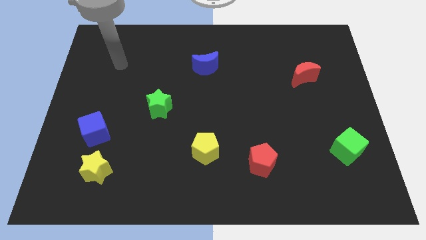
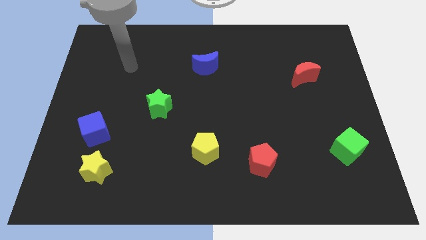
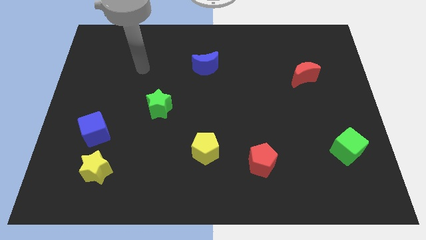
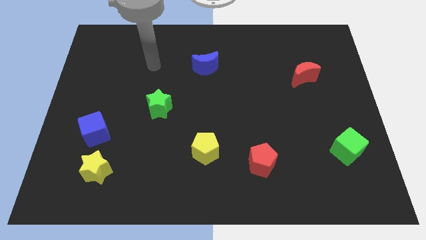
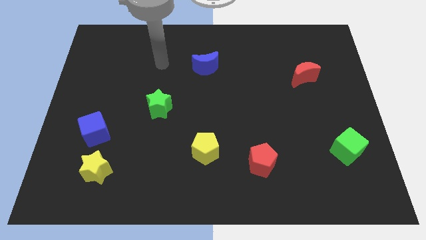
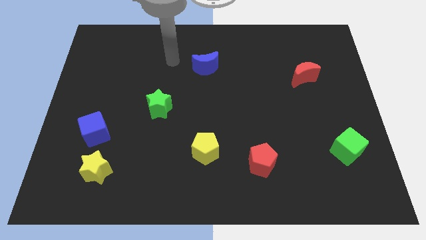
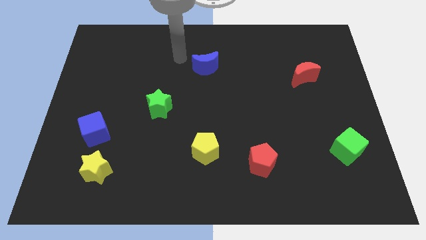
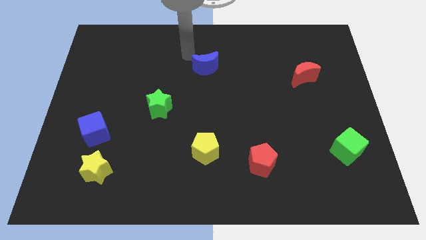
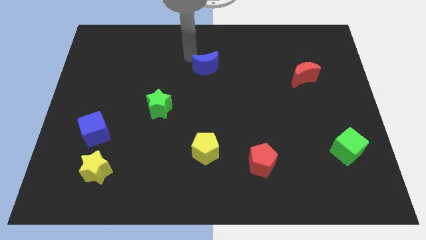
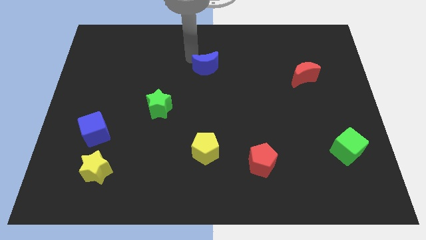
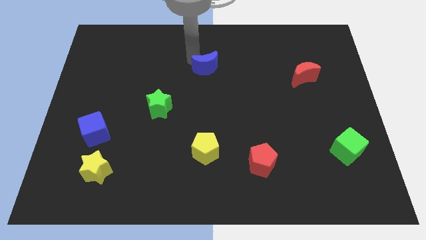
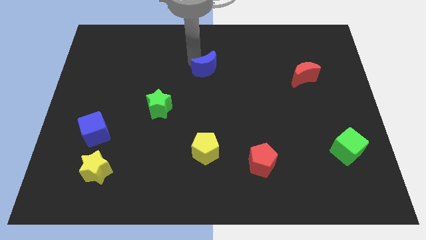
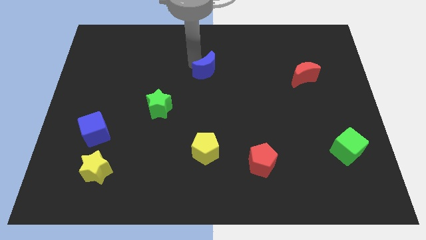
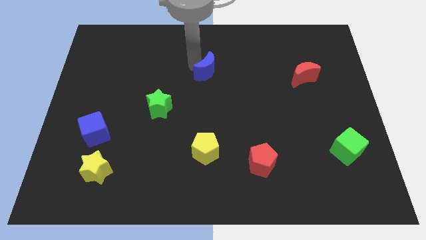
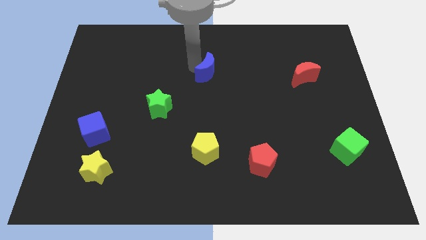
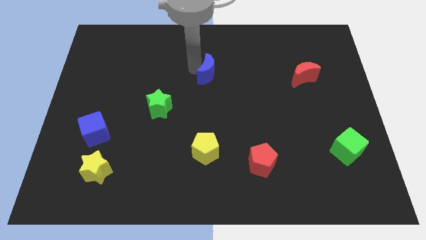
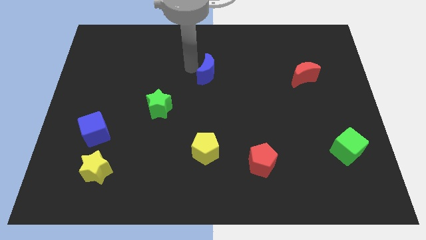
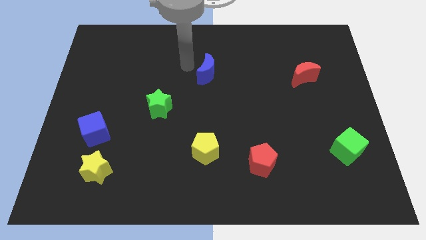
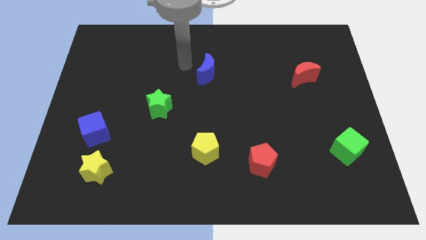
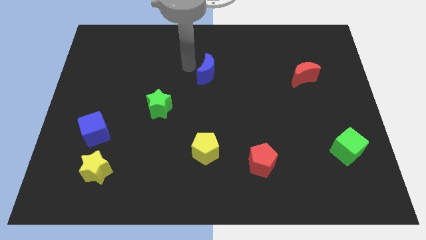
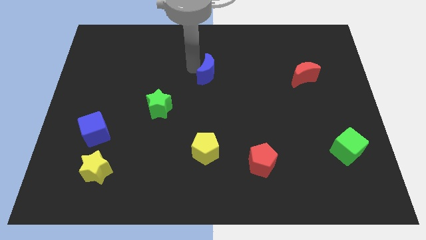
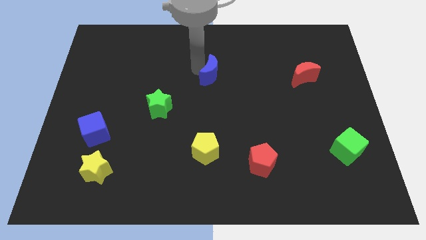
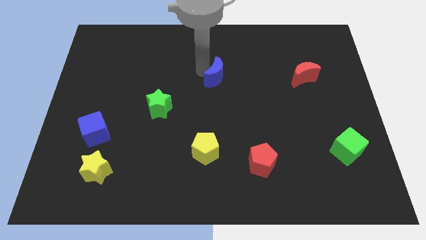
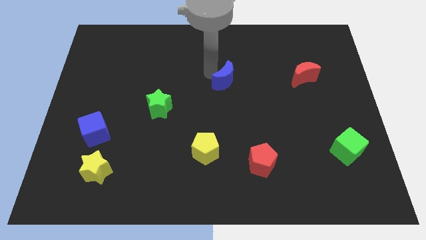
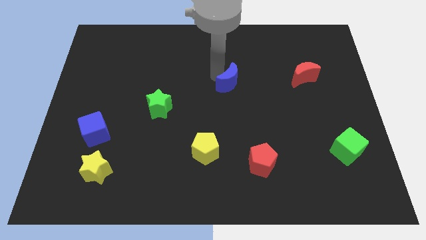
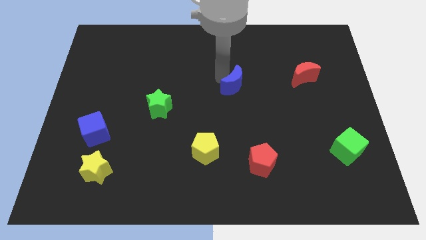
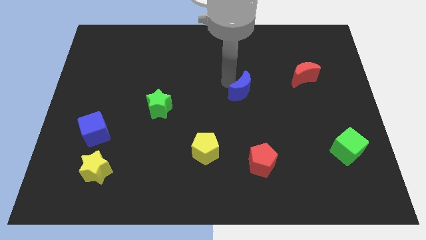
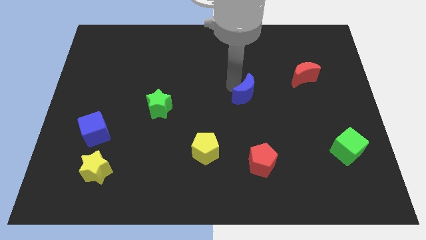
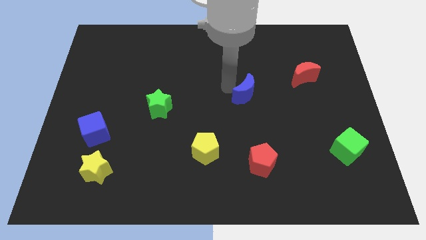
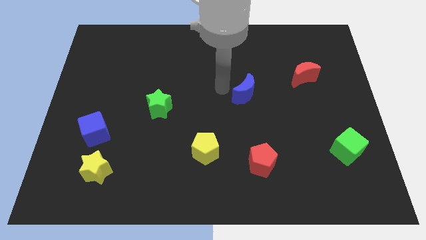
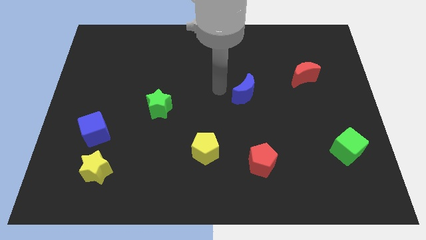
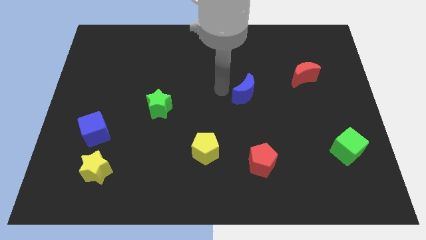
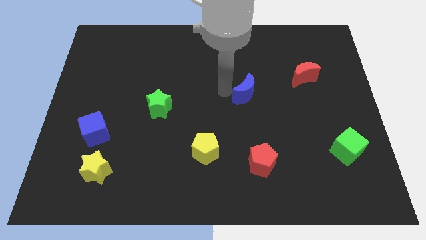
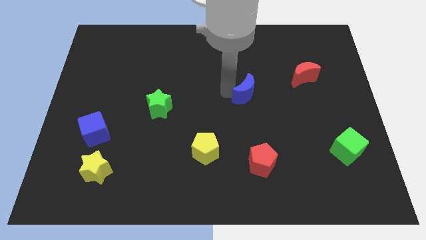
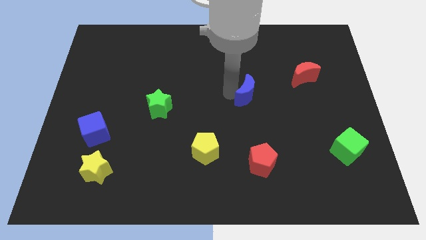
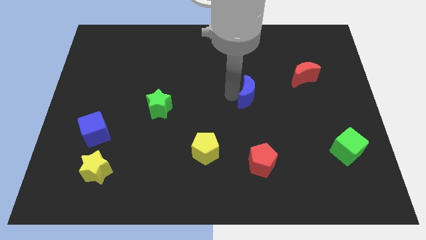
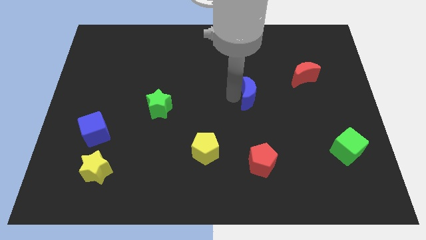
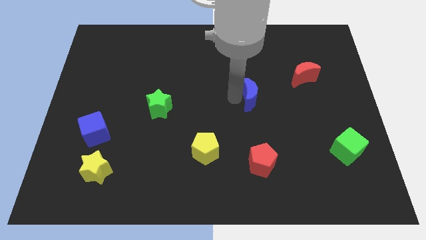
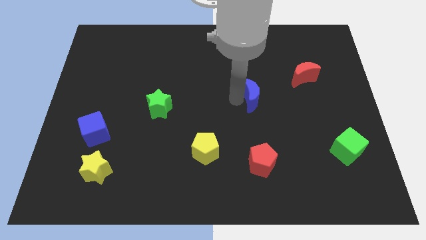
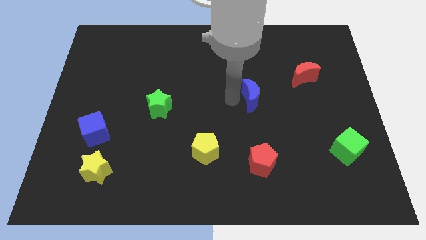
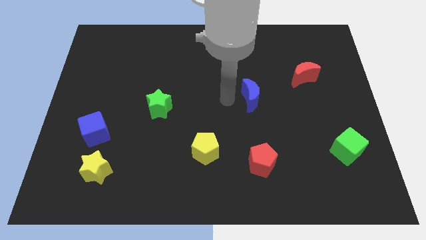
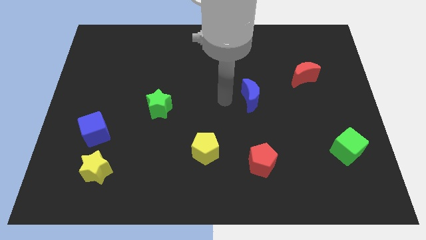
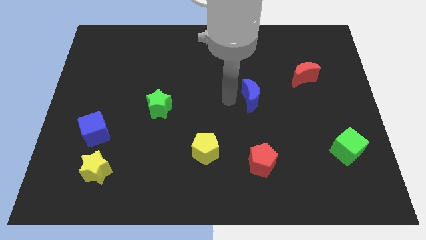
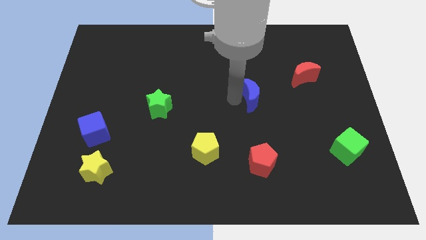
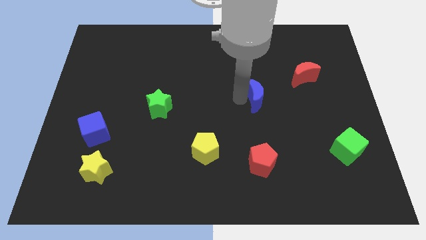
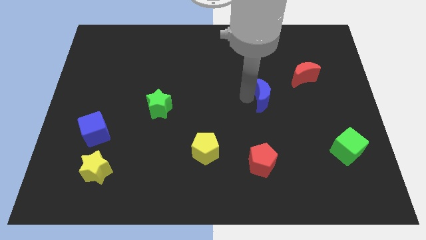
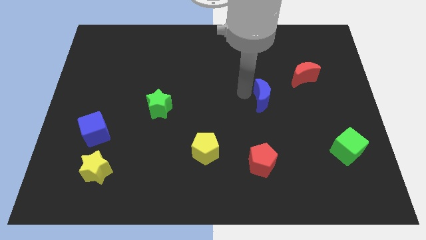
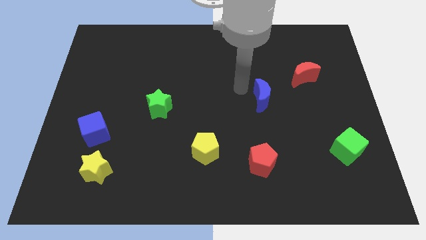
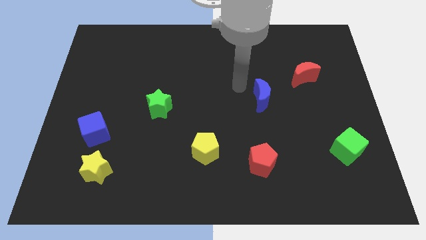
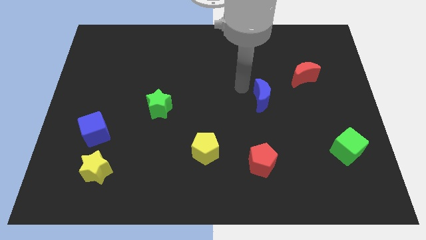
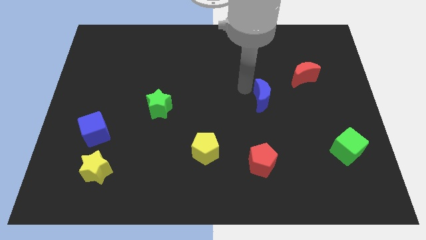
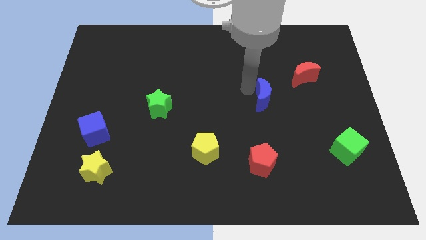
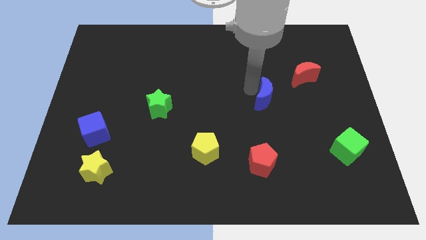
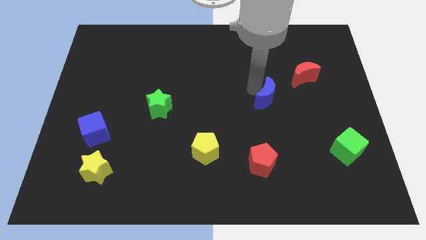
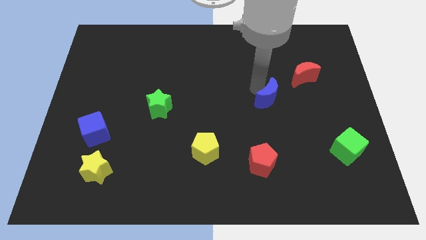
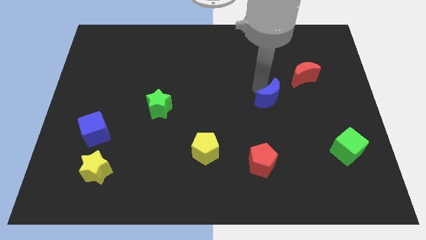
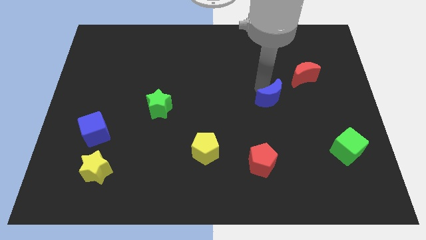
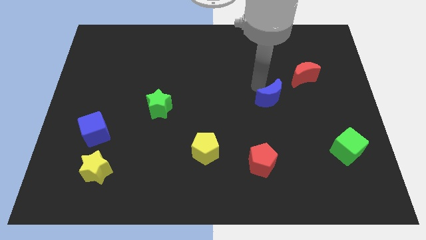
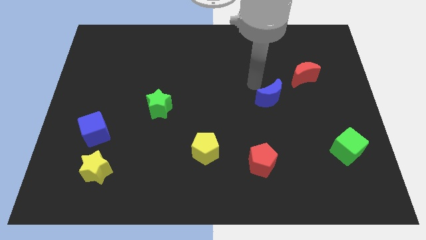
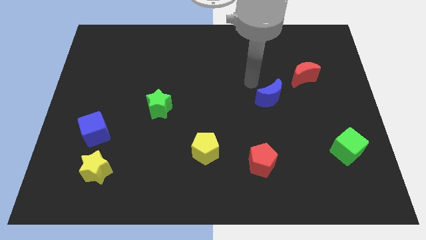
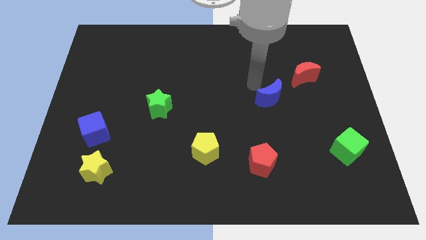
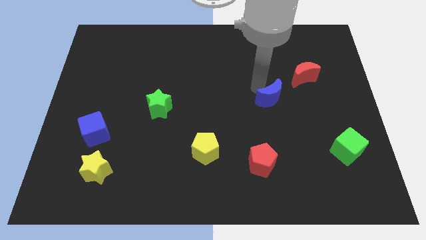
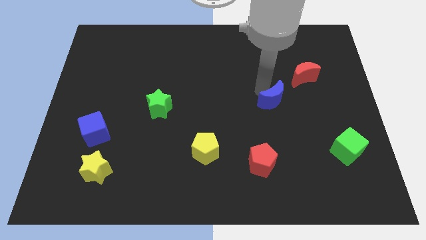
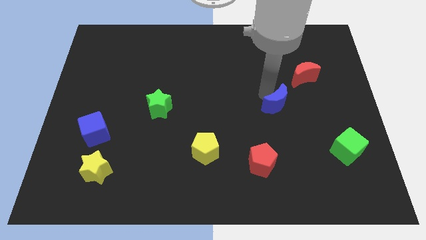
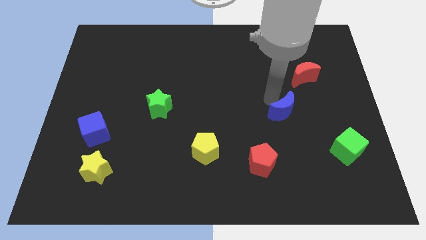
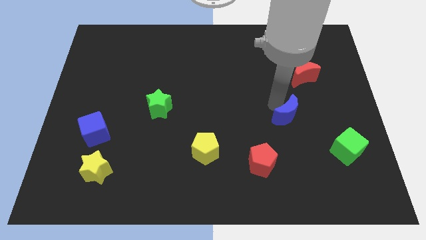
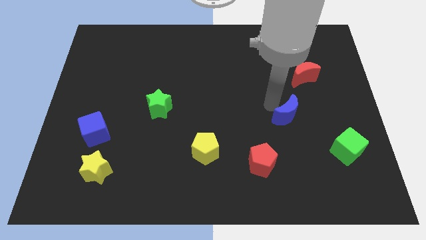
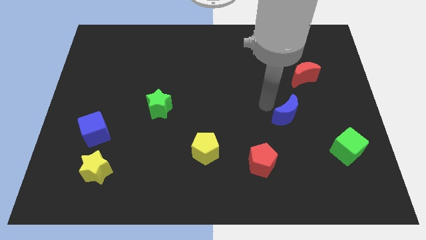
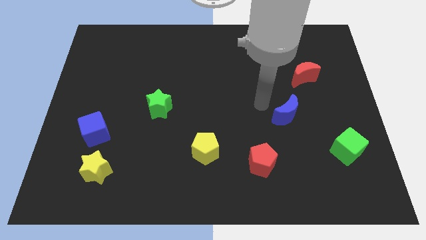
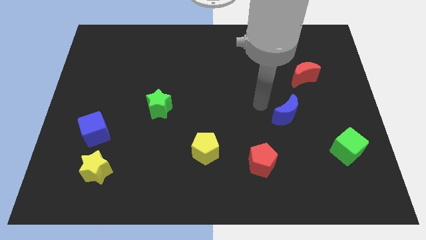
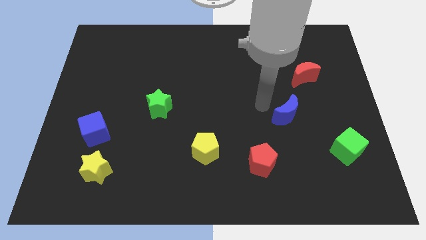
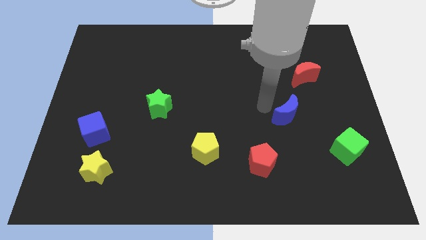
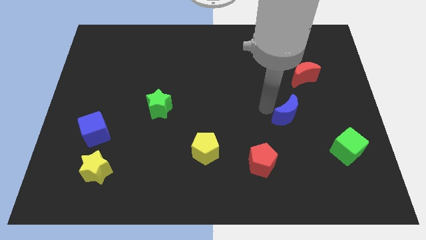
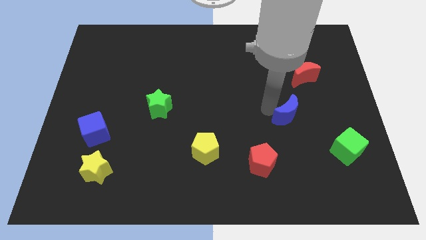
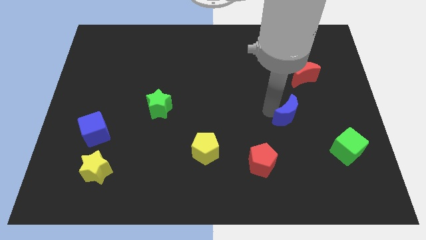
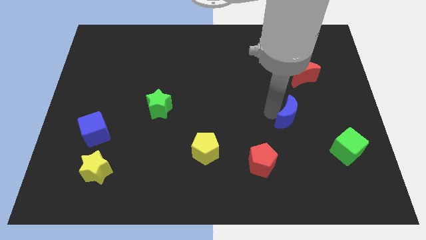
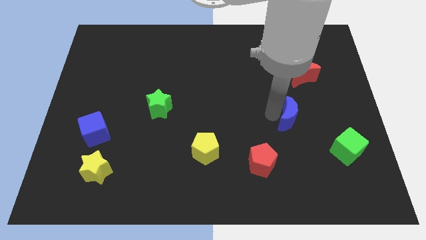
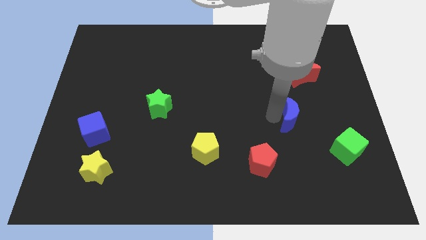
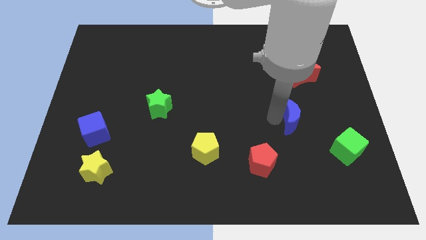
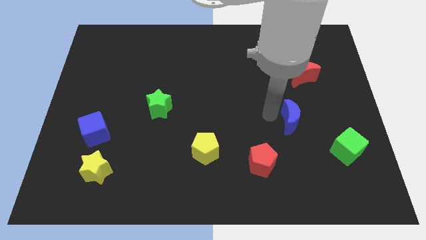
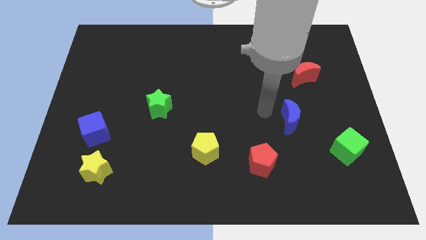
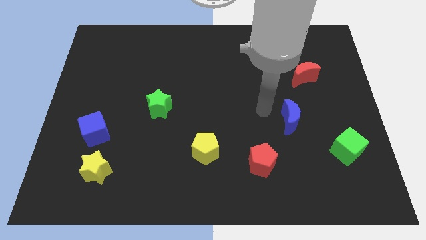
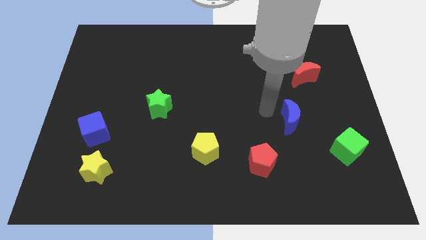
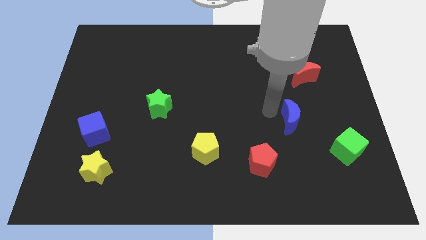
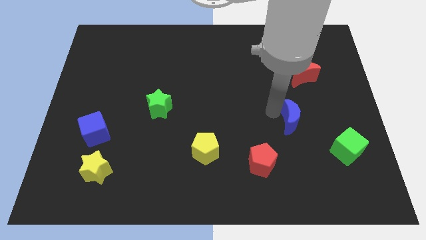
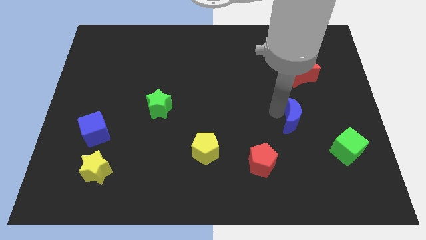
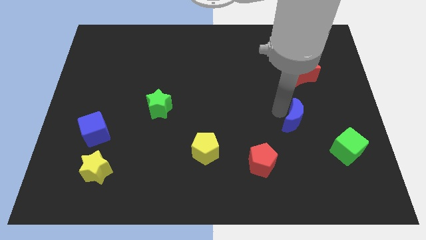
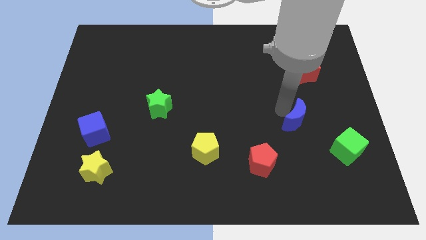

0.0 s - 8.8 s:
push the blue moon to the top left of the green cube
